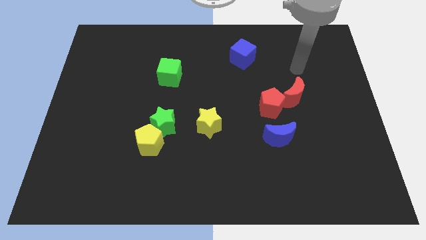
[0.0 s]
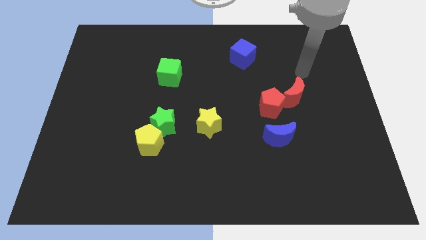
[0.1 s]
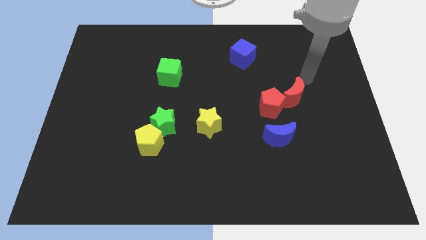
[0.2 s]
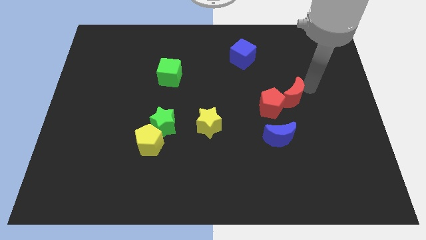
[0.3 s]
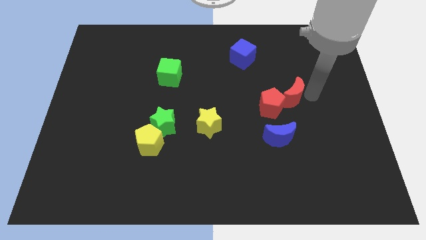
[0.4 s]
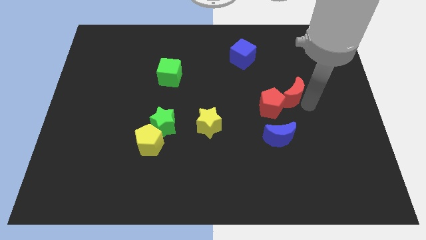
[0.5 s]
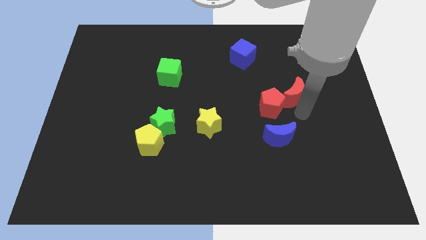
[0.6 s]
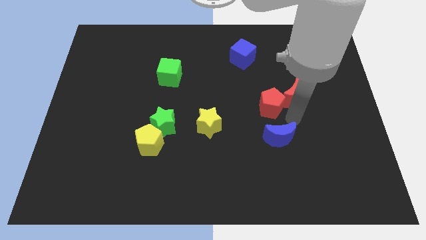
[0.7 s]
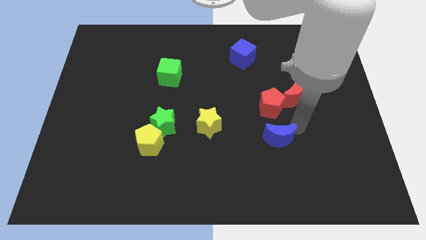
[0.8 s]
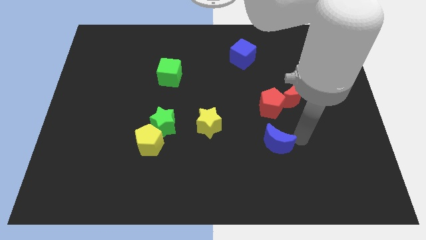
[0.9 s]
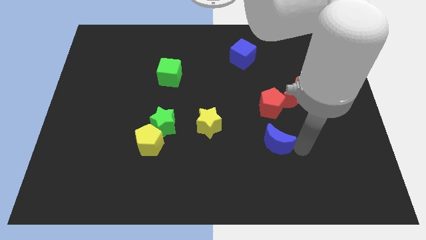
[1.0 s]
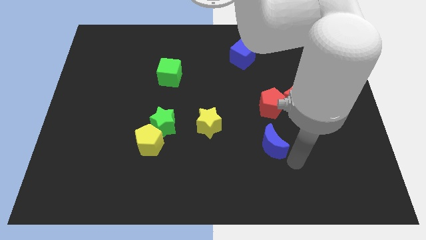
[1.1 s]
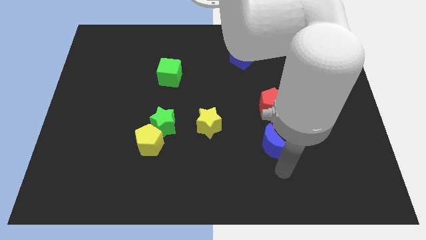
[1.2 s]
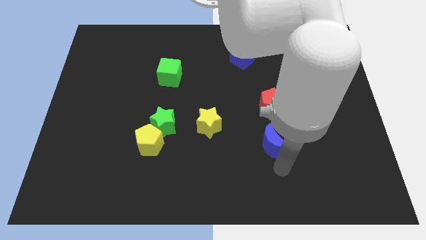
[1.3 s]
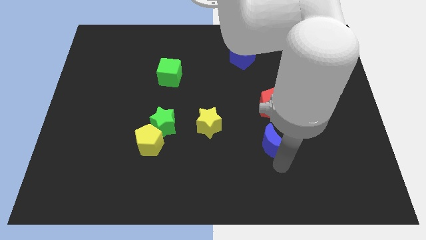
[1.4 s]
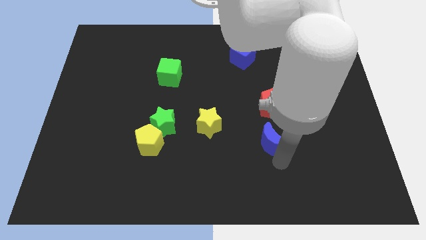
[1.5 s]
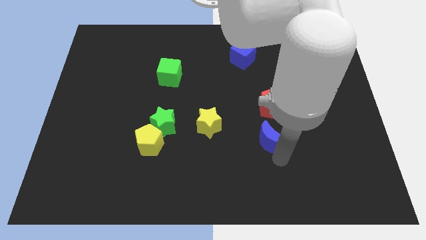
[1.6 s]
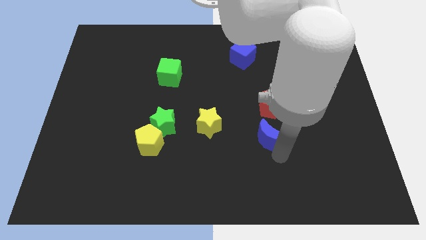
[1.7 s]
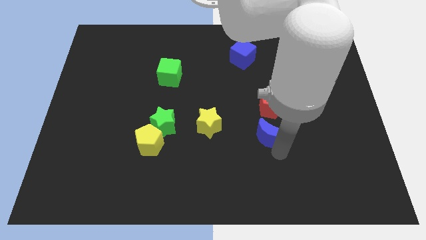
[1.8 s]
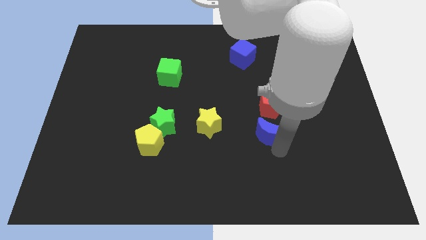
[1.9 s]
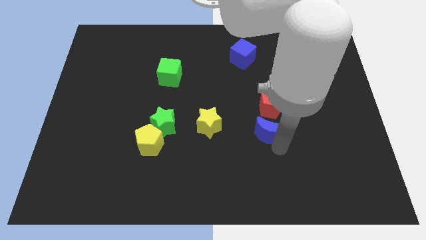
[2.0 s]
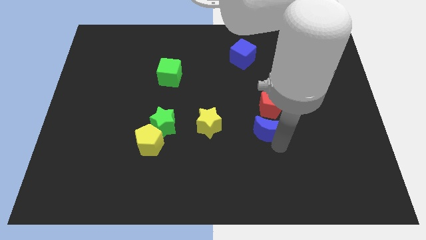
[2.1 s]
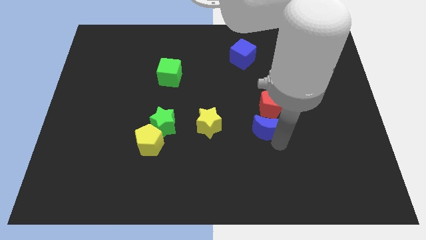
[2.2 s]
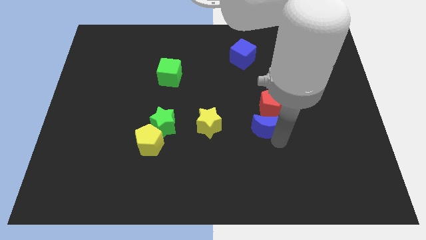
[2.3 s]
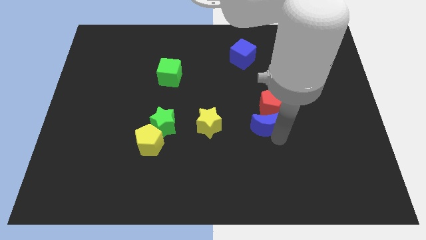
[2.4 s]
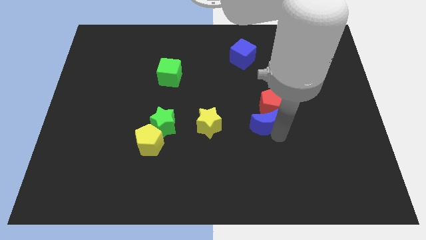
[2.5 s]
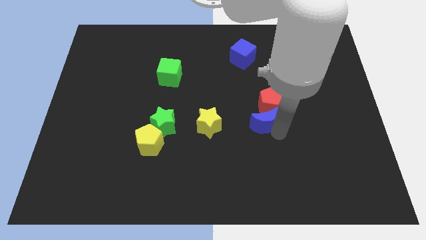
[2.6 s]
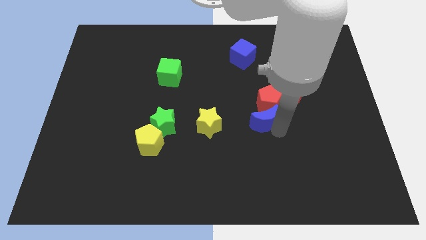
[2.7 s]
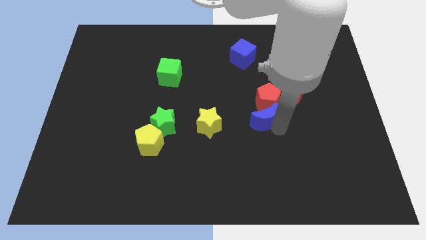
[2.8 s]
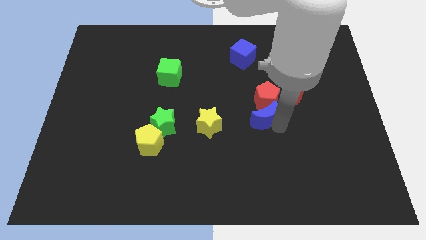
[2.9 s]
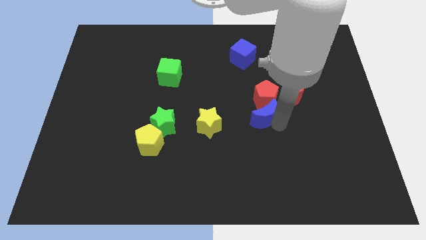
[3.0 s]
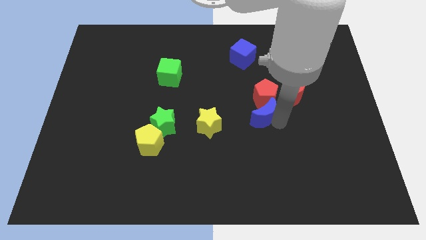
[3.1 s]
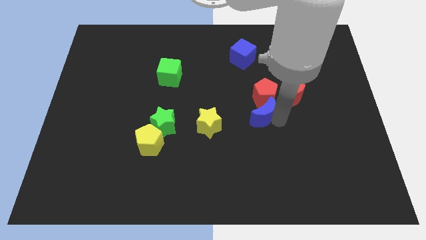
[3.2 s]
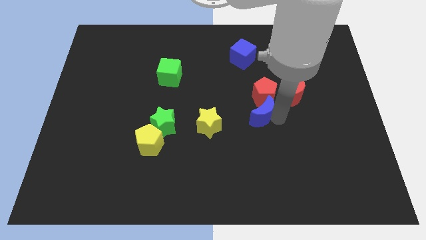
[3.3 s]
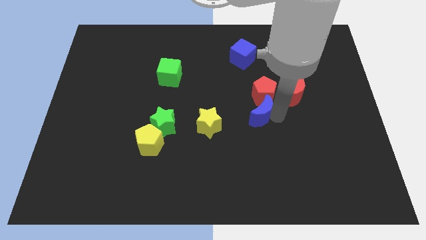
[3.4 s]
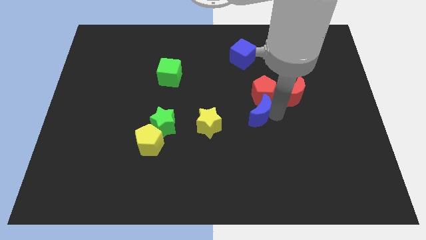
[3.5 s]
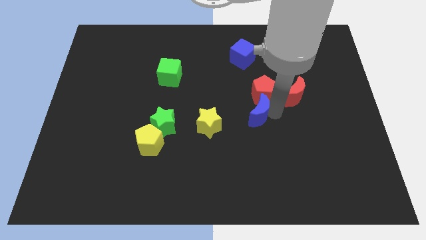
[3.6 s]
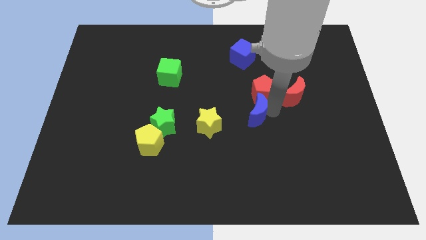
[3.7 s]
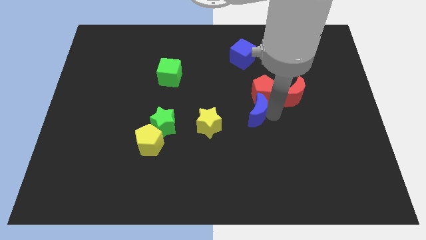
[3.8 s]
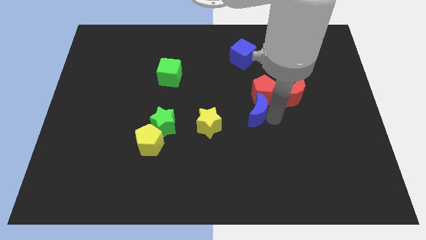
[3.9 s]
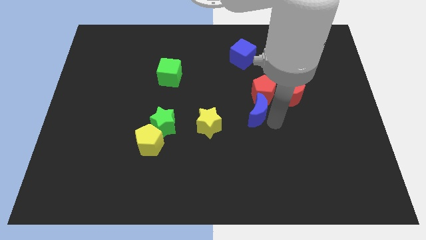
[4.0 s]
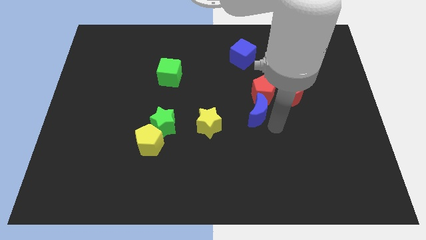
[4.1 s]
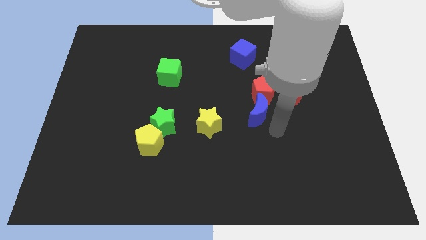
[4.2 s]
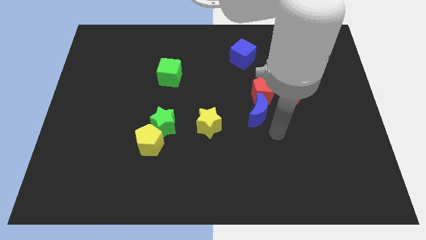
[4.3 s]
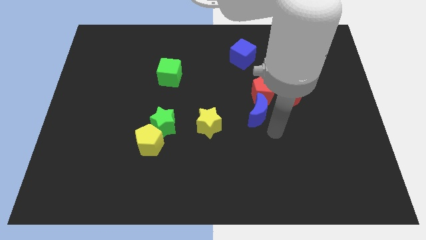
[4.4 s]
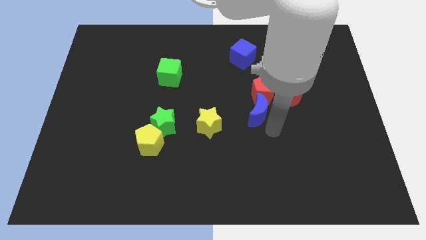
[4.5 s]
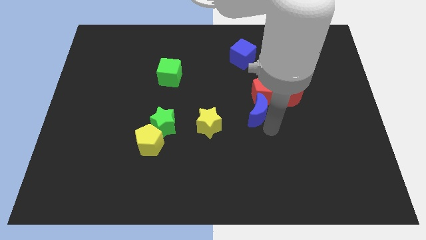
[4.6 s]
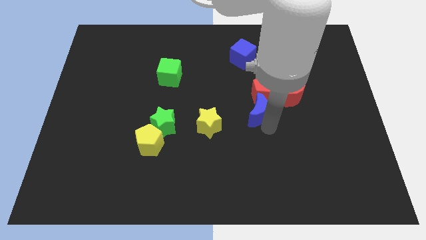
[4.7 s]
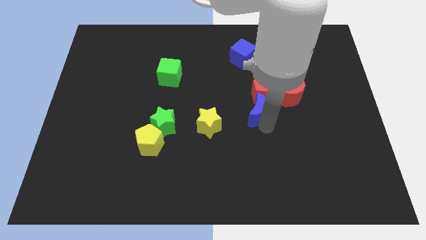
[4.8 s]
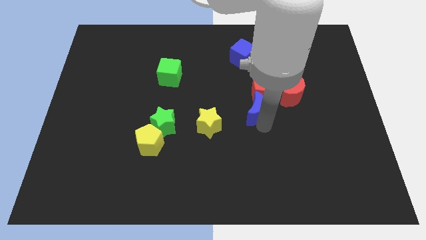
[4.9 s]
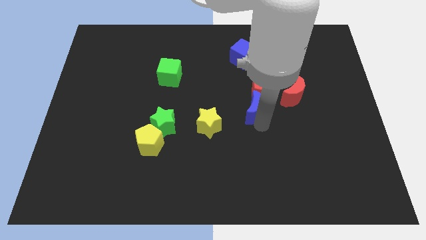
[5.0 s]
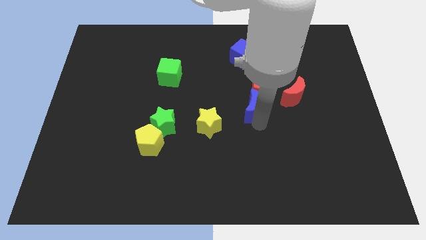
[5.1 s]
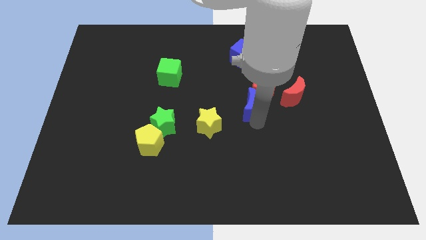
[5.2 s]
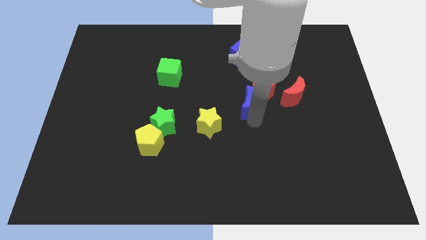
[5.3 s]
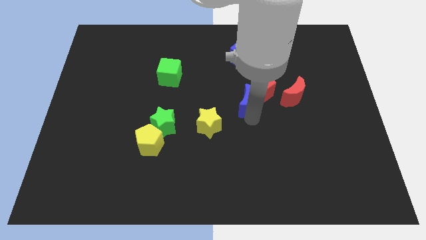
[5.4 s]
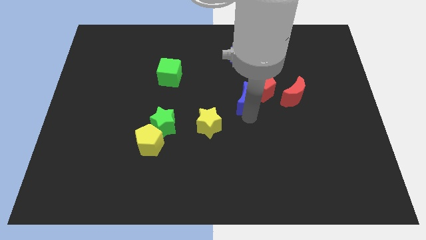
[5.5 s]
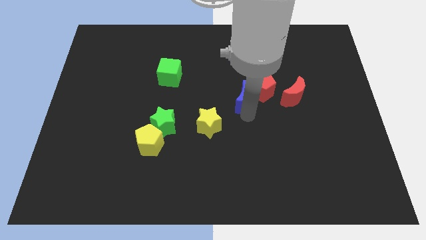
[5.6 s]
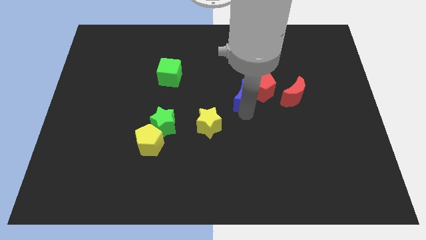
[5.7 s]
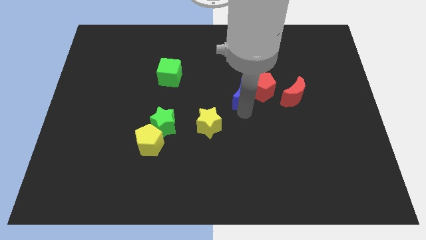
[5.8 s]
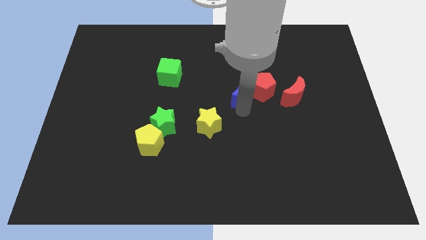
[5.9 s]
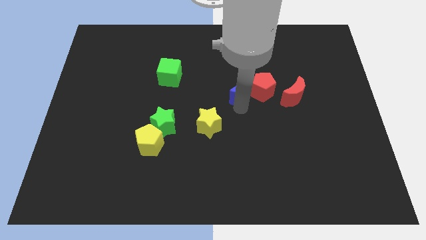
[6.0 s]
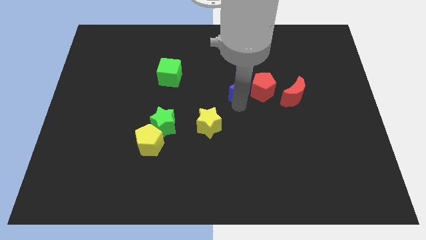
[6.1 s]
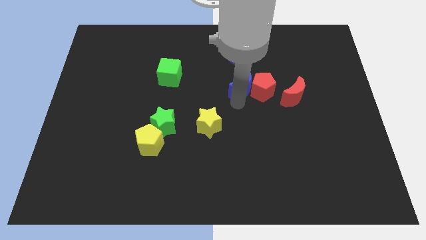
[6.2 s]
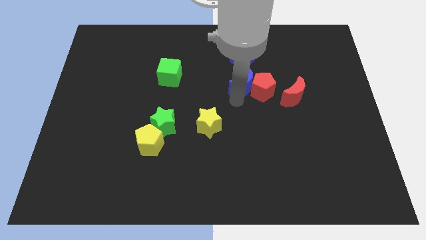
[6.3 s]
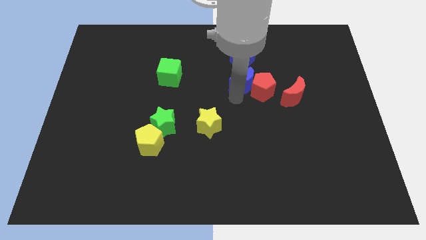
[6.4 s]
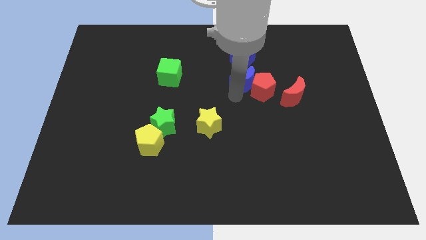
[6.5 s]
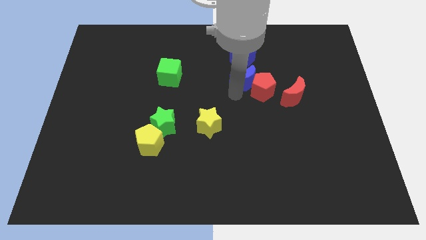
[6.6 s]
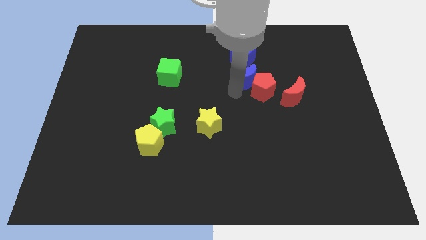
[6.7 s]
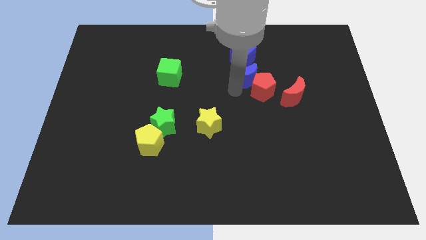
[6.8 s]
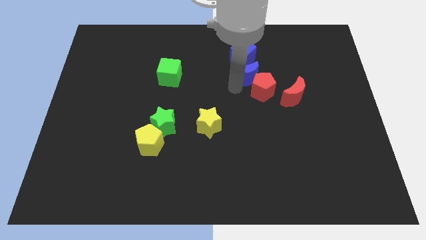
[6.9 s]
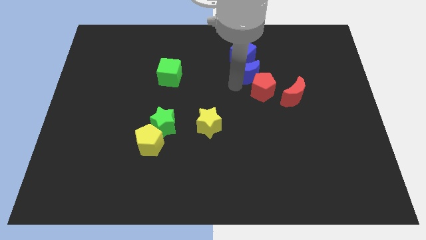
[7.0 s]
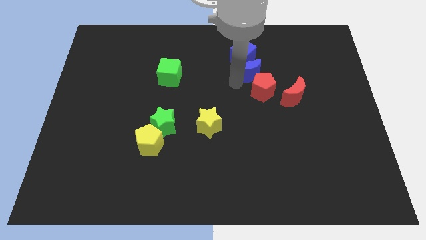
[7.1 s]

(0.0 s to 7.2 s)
push the blue moon next to the blue cube

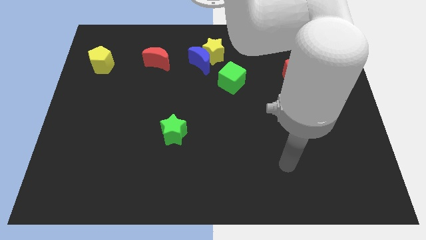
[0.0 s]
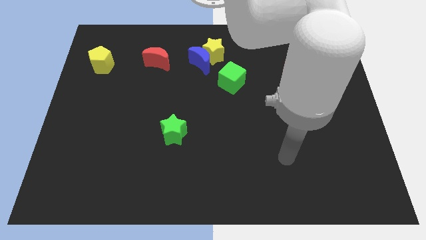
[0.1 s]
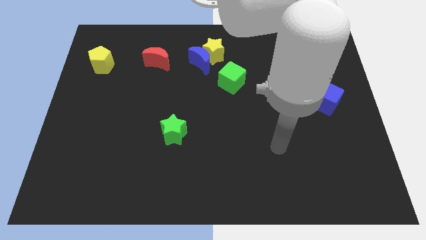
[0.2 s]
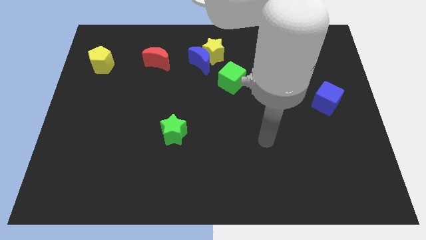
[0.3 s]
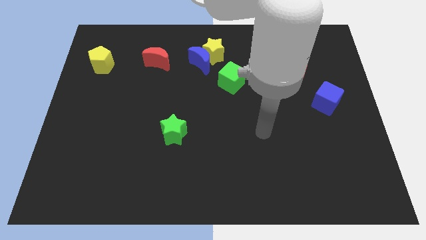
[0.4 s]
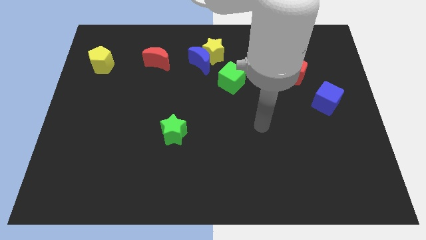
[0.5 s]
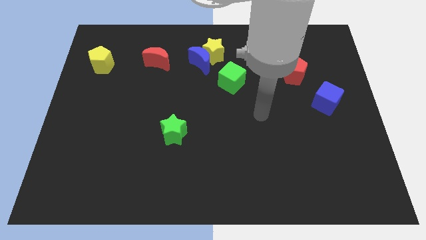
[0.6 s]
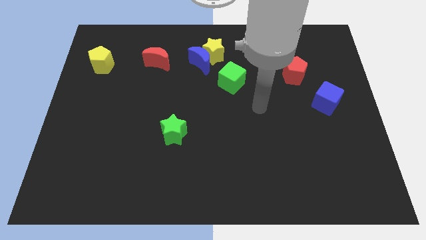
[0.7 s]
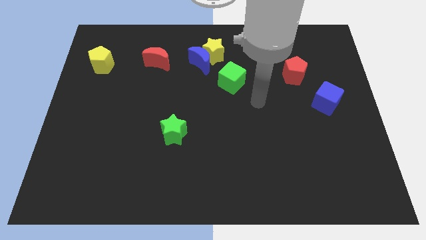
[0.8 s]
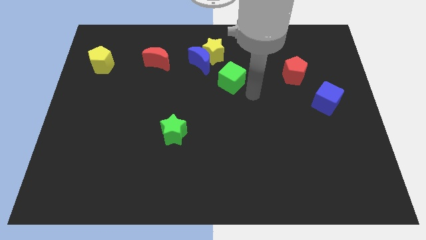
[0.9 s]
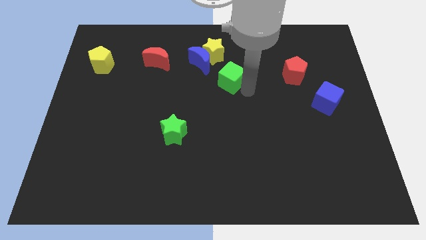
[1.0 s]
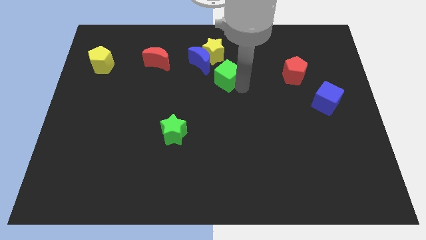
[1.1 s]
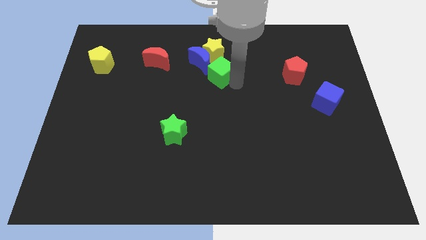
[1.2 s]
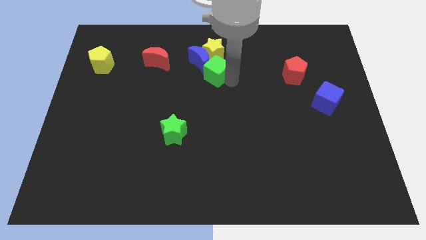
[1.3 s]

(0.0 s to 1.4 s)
slide the green cube to the blue moon
